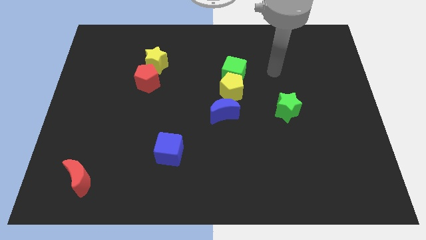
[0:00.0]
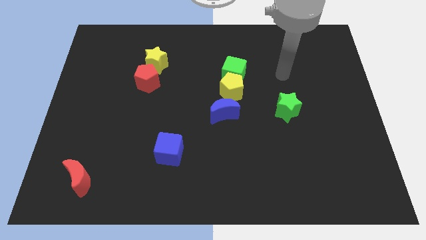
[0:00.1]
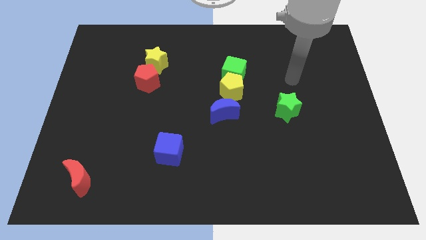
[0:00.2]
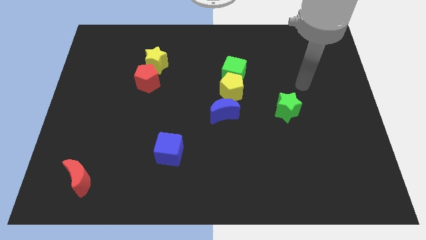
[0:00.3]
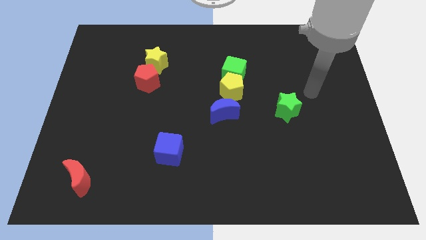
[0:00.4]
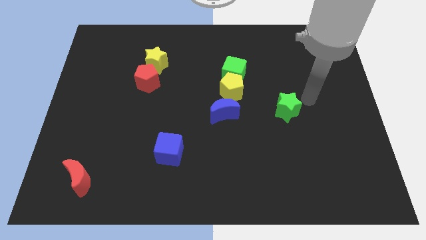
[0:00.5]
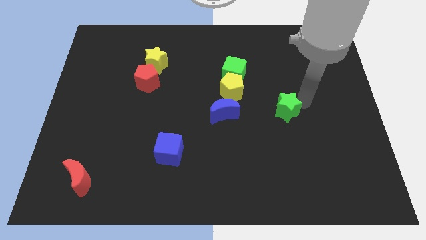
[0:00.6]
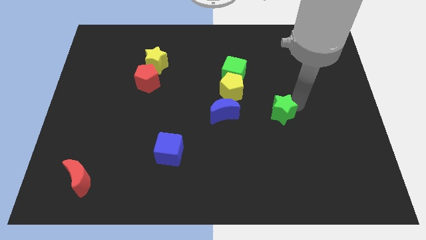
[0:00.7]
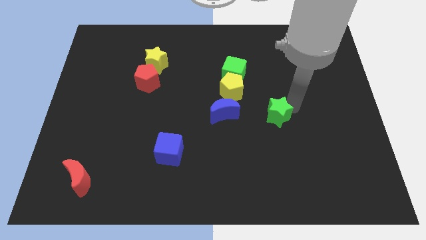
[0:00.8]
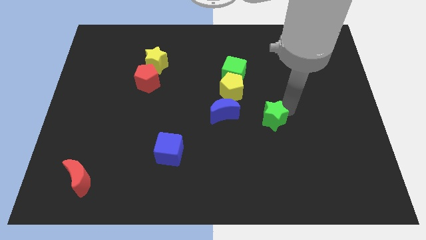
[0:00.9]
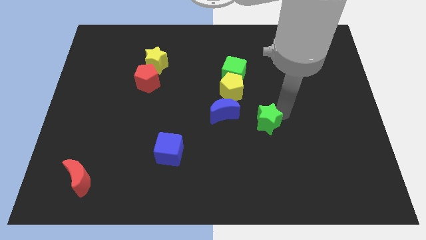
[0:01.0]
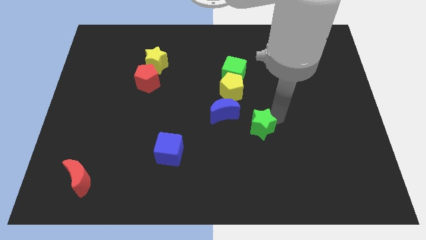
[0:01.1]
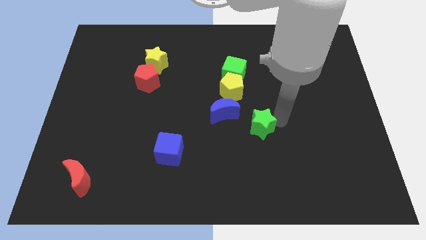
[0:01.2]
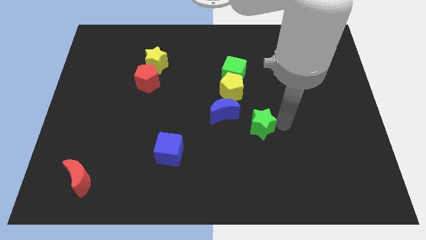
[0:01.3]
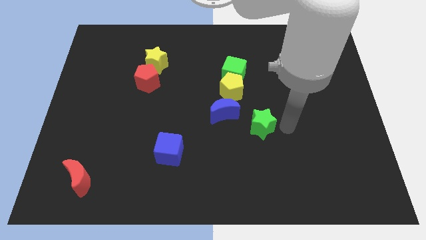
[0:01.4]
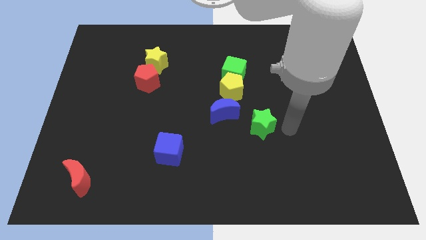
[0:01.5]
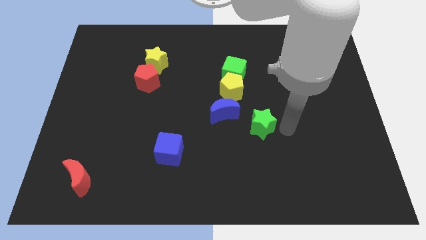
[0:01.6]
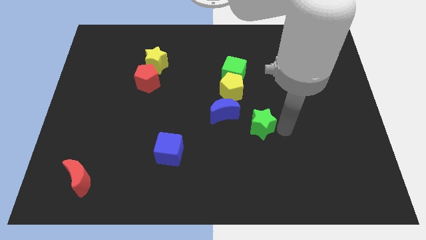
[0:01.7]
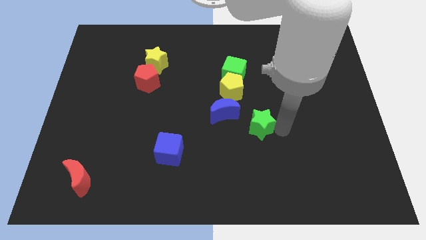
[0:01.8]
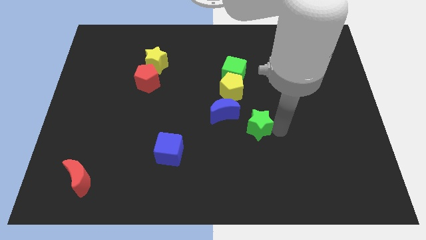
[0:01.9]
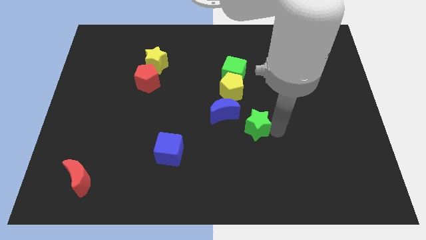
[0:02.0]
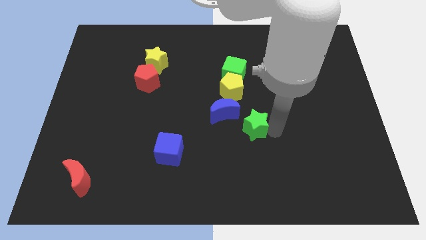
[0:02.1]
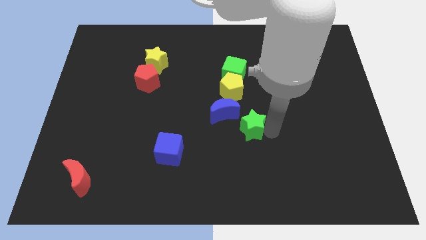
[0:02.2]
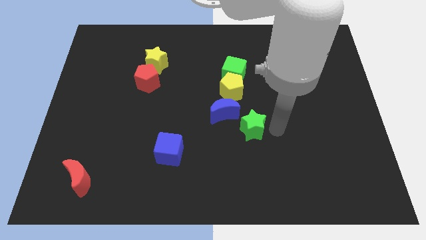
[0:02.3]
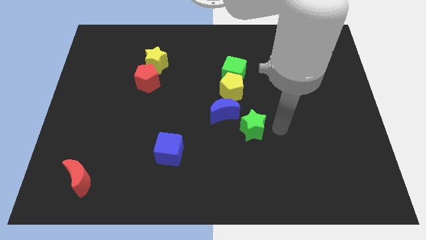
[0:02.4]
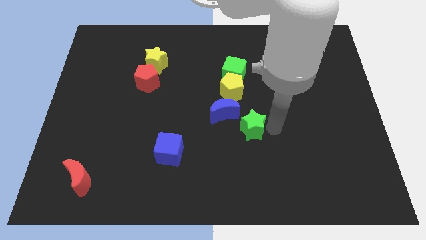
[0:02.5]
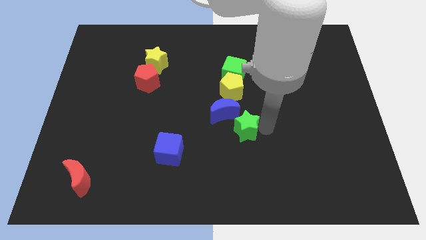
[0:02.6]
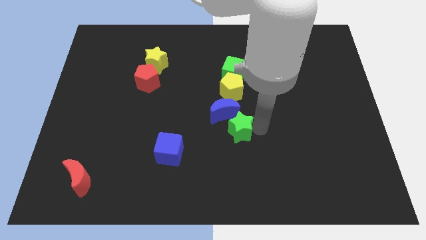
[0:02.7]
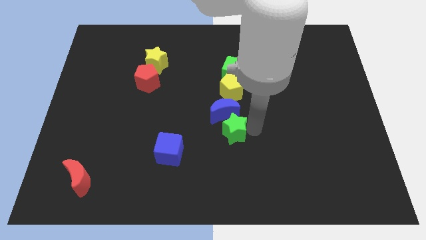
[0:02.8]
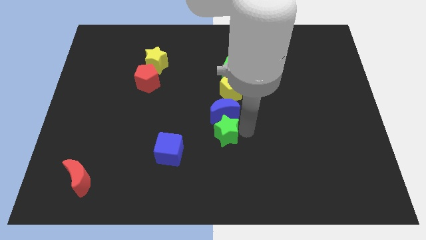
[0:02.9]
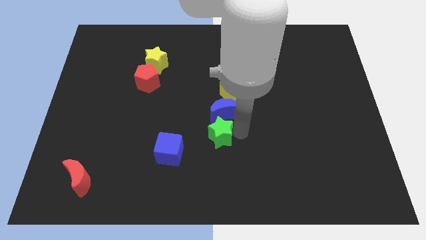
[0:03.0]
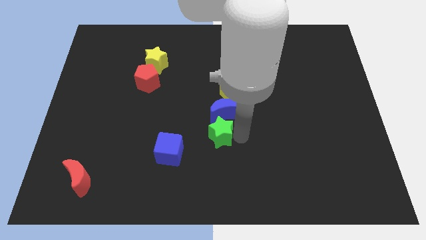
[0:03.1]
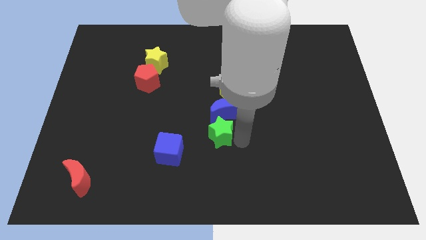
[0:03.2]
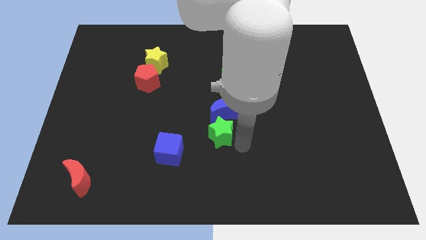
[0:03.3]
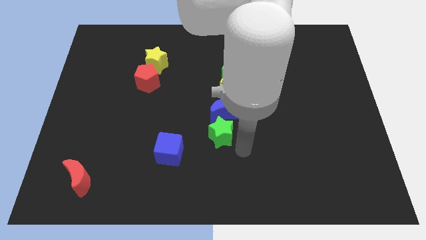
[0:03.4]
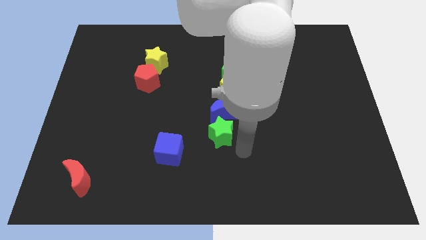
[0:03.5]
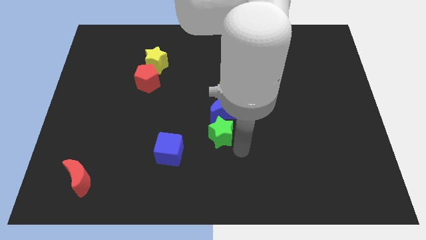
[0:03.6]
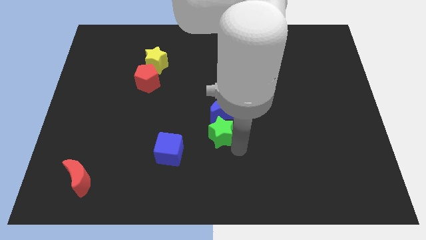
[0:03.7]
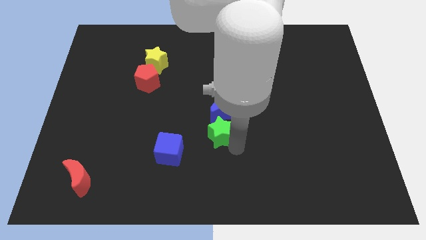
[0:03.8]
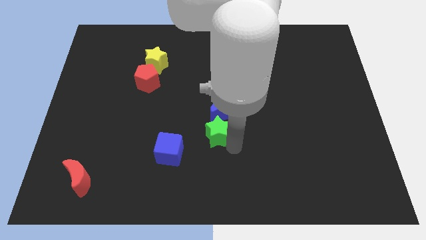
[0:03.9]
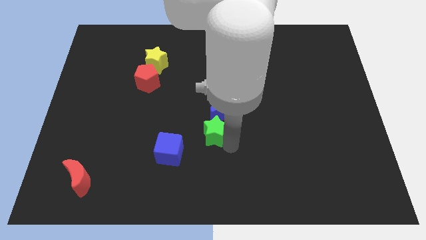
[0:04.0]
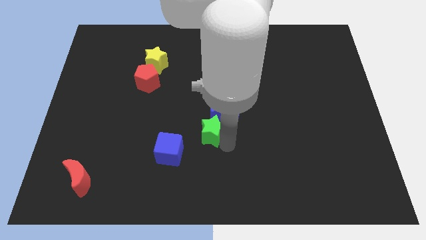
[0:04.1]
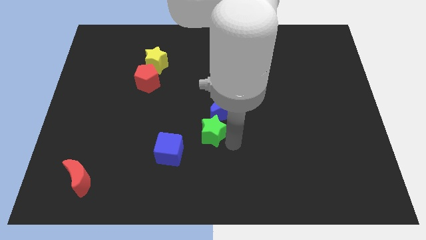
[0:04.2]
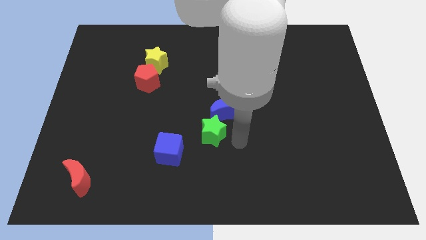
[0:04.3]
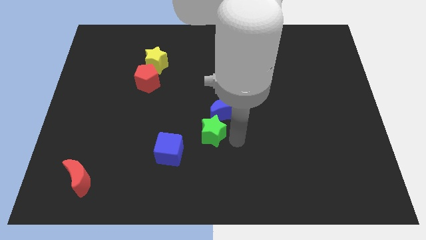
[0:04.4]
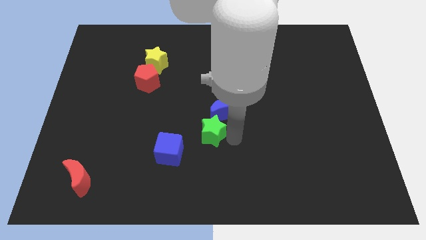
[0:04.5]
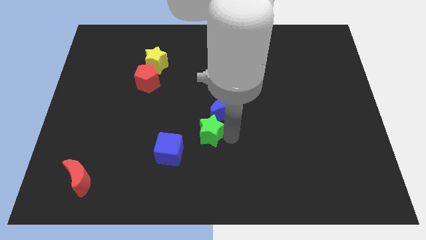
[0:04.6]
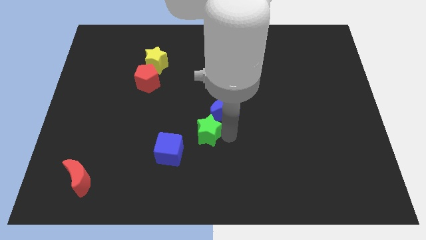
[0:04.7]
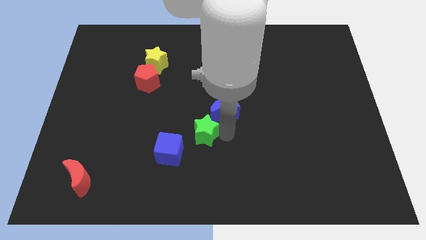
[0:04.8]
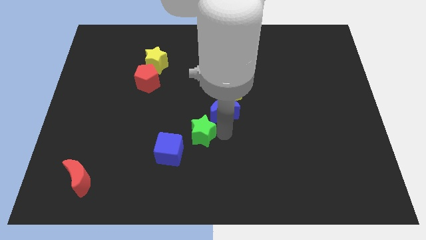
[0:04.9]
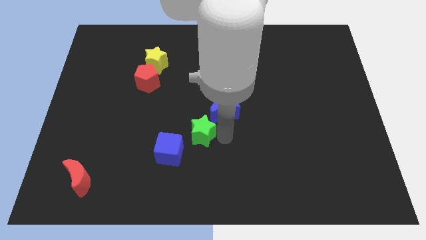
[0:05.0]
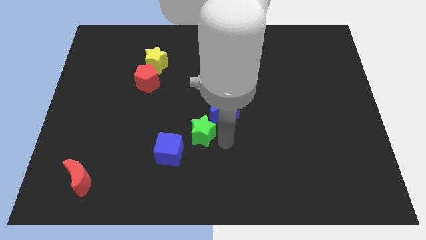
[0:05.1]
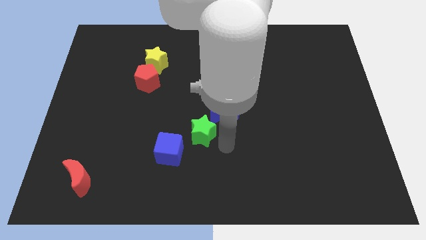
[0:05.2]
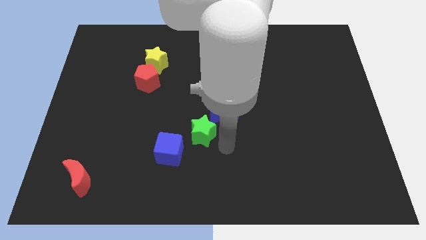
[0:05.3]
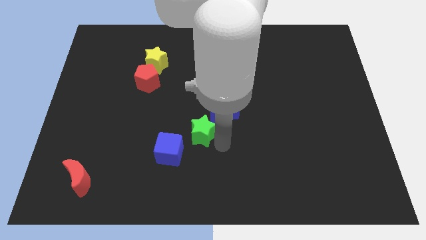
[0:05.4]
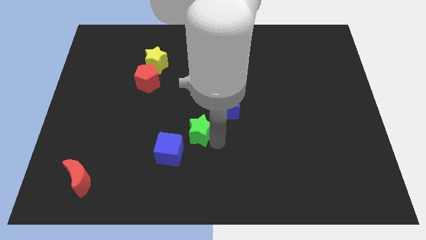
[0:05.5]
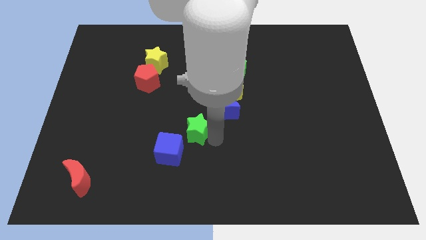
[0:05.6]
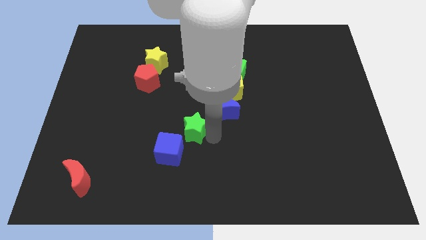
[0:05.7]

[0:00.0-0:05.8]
move the green star to the left

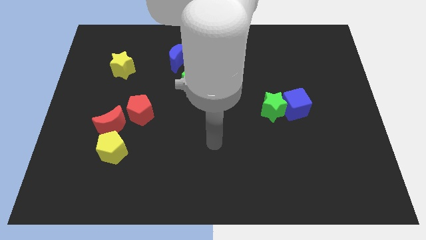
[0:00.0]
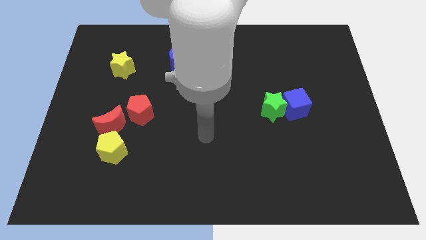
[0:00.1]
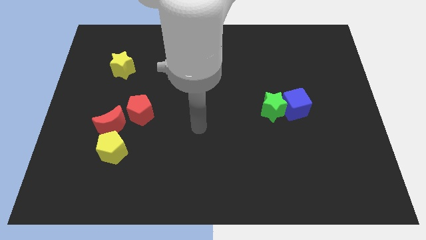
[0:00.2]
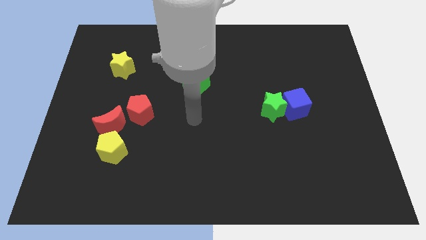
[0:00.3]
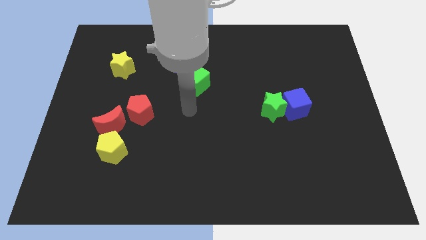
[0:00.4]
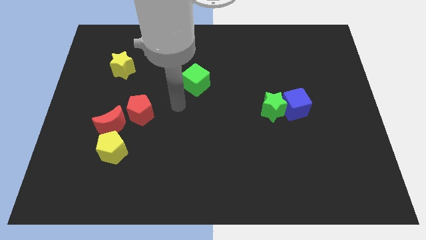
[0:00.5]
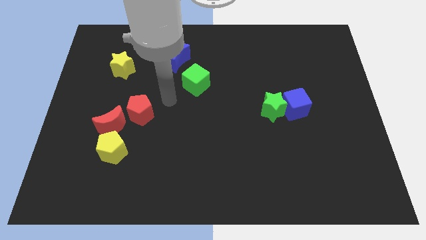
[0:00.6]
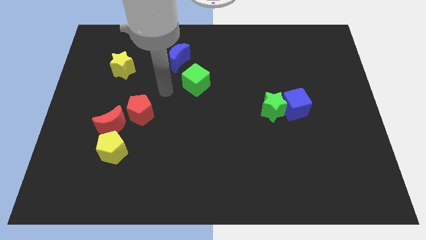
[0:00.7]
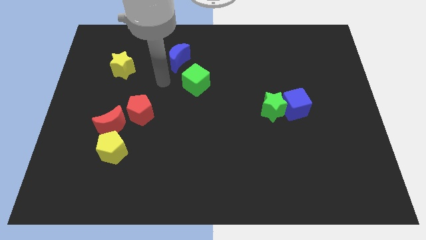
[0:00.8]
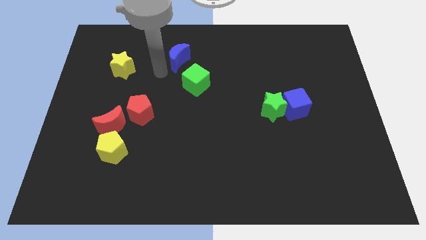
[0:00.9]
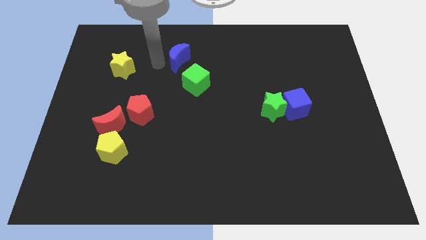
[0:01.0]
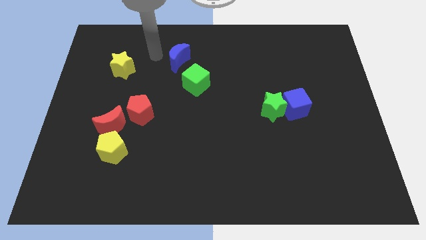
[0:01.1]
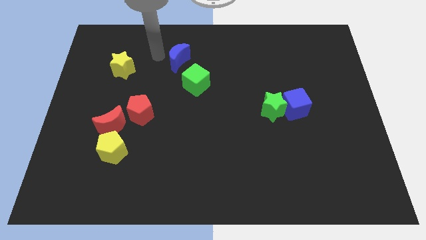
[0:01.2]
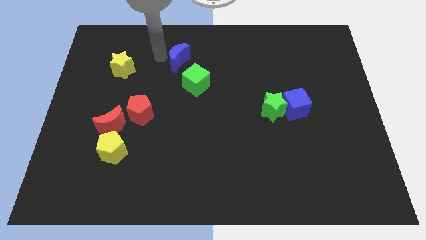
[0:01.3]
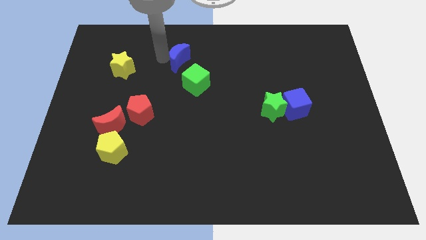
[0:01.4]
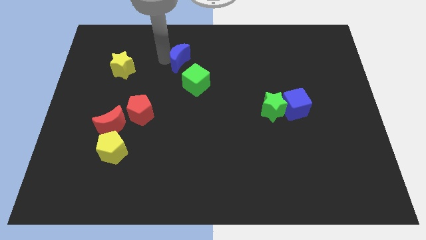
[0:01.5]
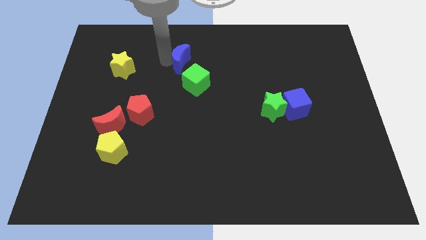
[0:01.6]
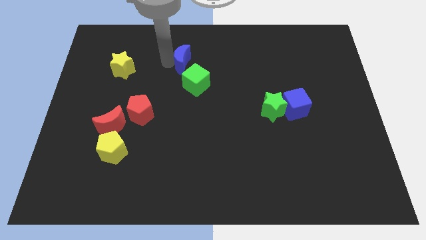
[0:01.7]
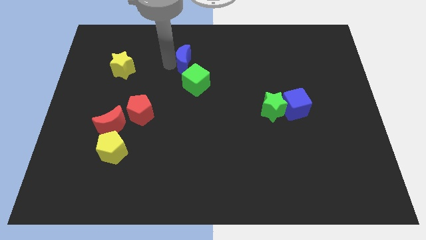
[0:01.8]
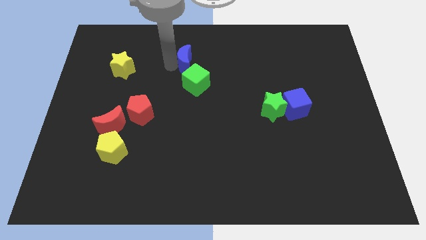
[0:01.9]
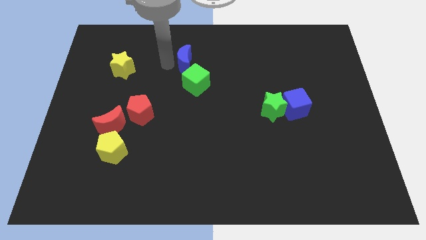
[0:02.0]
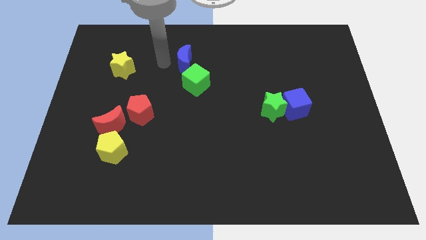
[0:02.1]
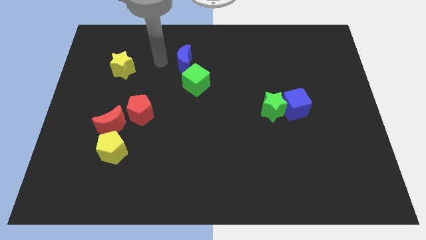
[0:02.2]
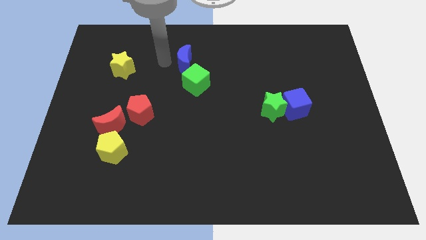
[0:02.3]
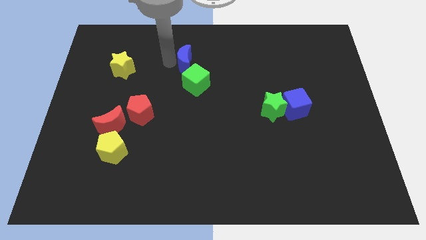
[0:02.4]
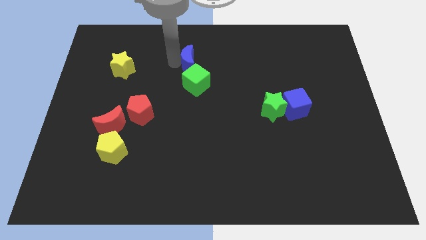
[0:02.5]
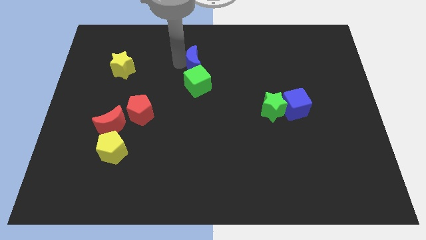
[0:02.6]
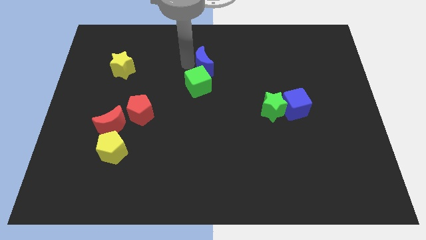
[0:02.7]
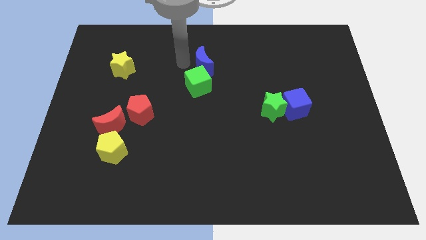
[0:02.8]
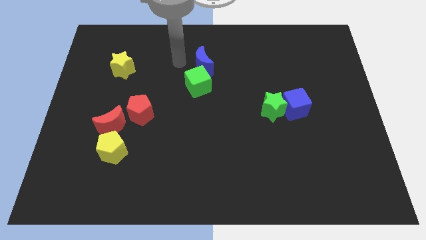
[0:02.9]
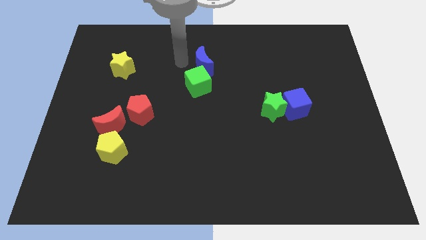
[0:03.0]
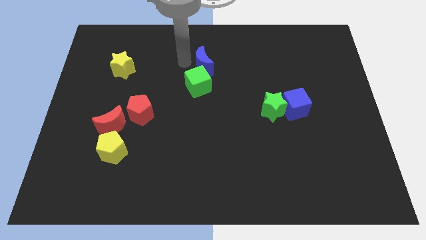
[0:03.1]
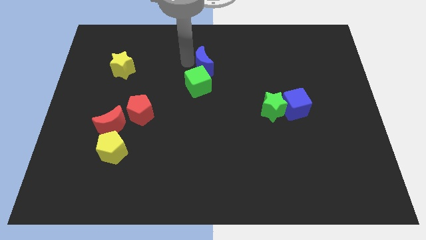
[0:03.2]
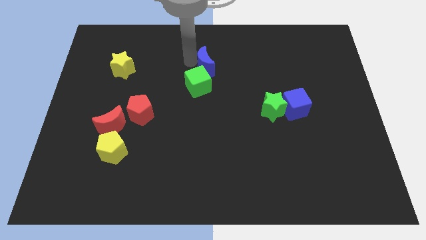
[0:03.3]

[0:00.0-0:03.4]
push the blue moon right a little bit
